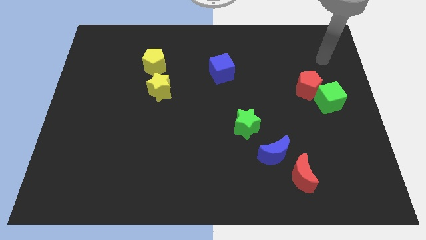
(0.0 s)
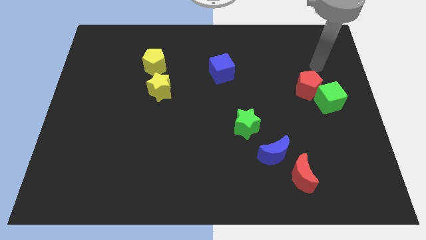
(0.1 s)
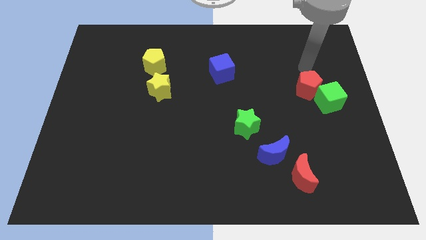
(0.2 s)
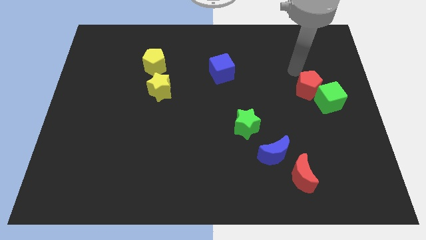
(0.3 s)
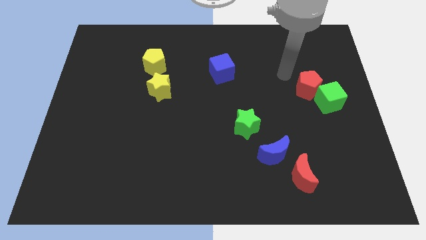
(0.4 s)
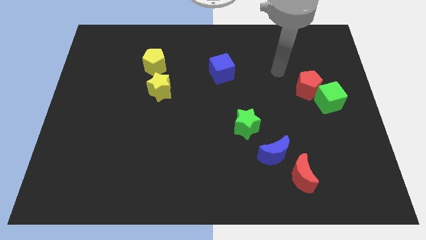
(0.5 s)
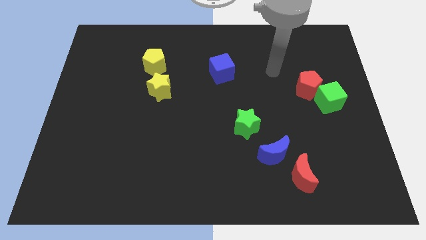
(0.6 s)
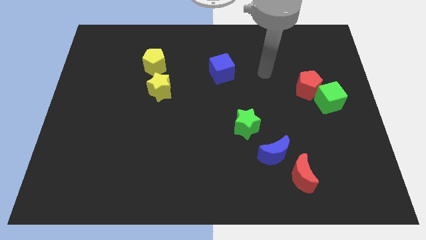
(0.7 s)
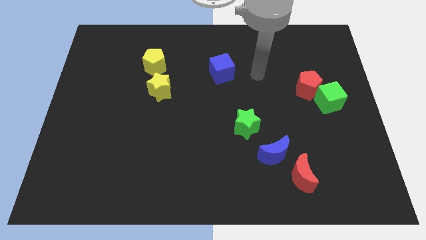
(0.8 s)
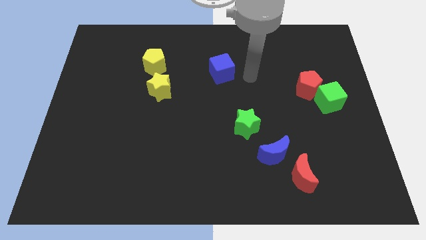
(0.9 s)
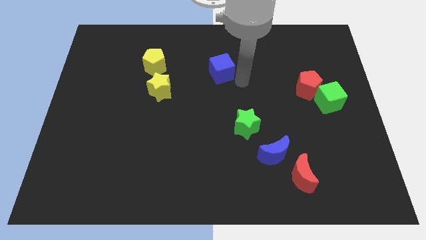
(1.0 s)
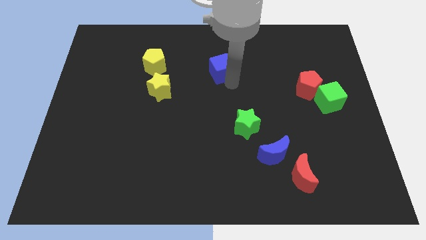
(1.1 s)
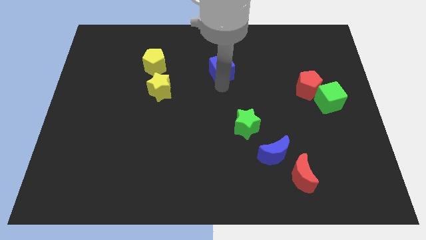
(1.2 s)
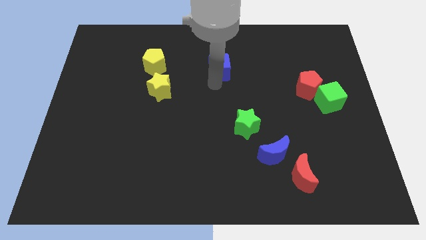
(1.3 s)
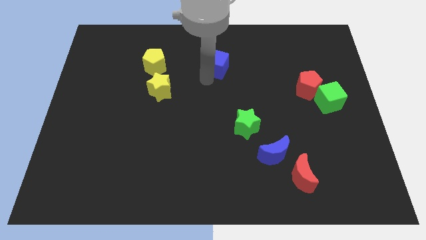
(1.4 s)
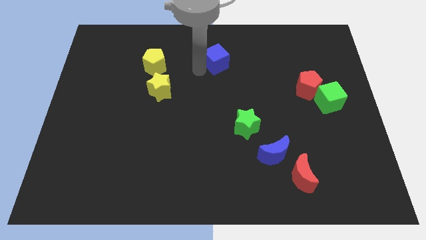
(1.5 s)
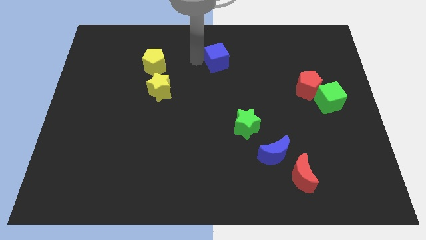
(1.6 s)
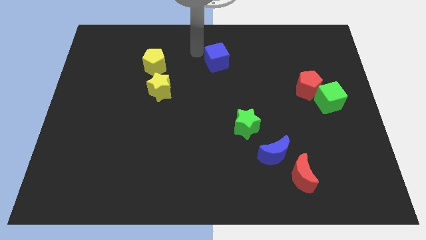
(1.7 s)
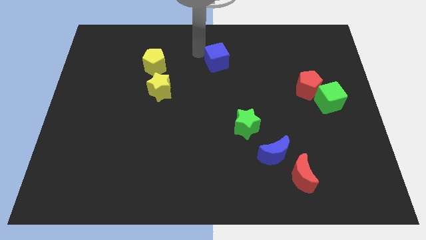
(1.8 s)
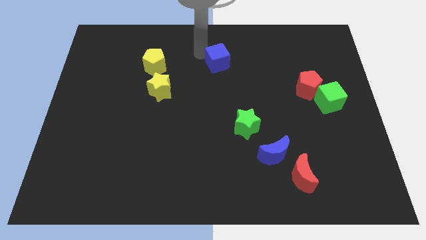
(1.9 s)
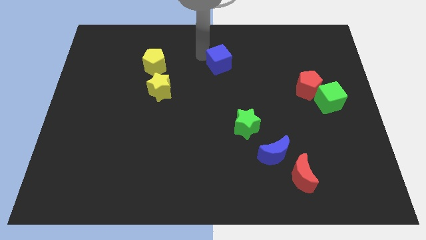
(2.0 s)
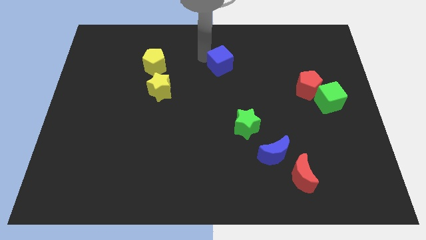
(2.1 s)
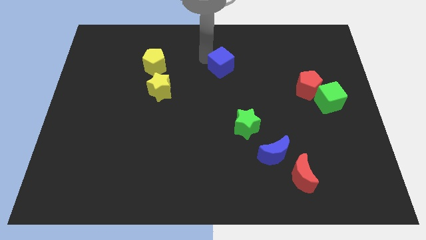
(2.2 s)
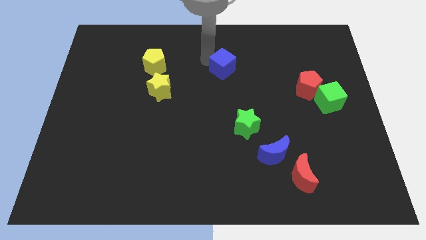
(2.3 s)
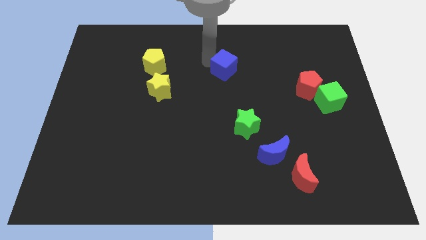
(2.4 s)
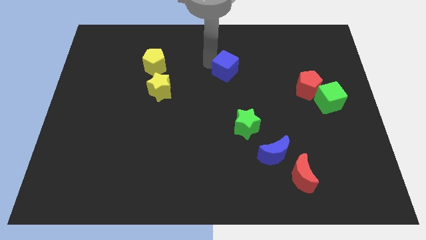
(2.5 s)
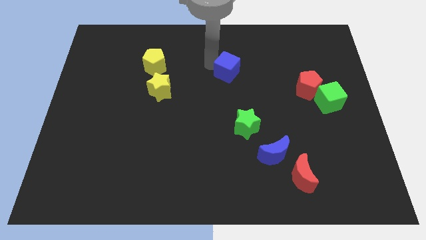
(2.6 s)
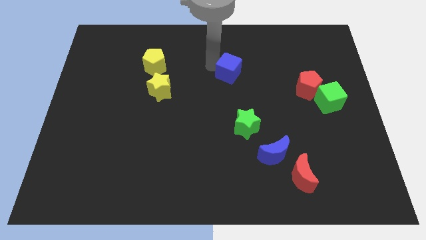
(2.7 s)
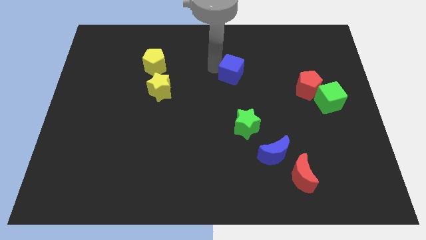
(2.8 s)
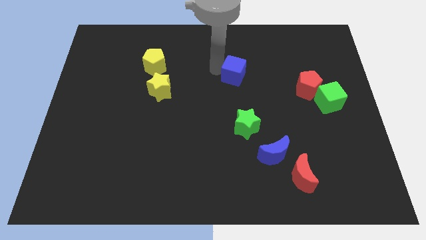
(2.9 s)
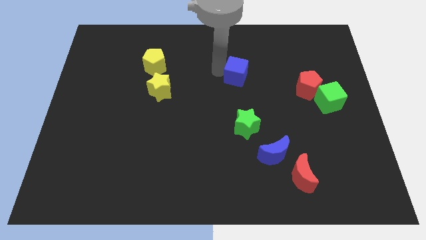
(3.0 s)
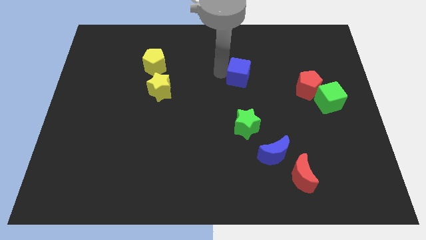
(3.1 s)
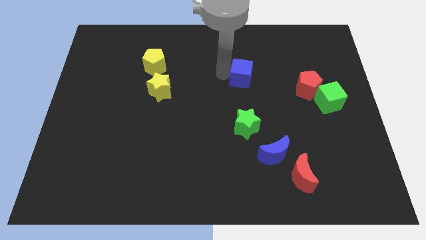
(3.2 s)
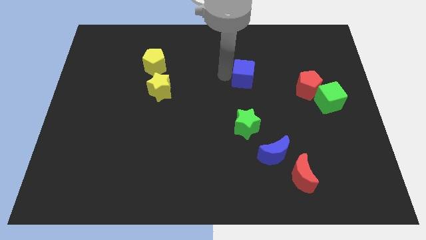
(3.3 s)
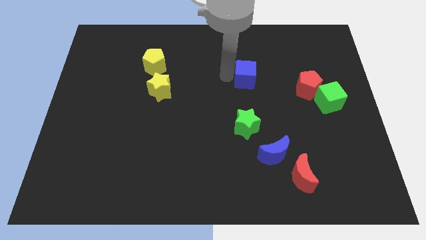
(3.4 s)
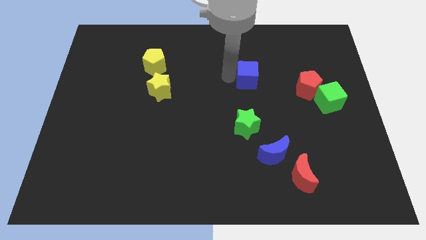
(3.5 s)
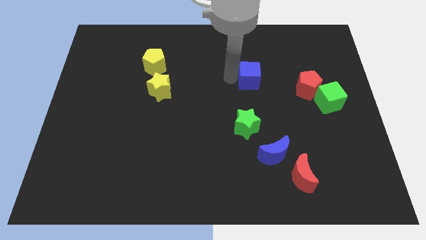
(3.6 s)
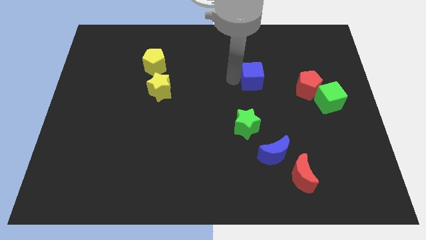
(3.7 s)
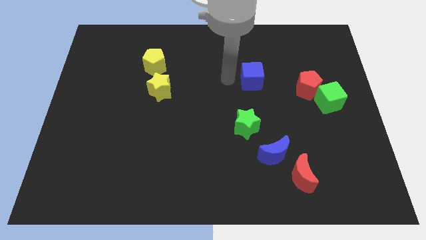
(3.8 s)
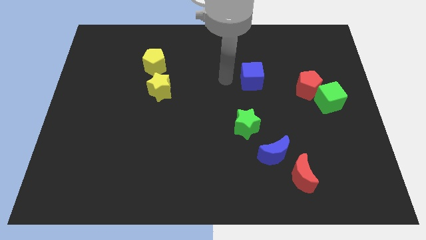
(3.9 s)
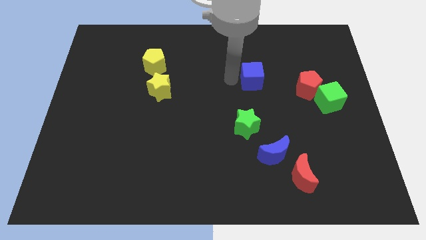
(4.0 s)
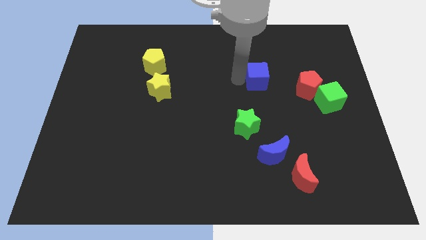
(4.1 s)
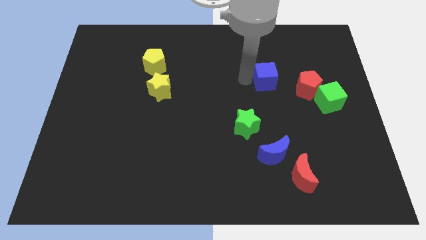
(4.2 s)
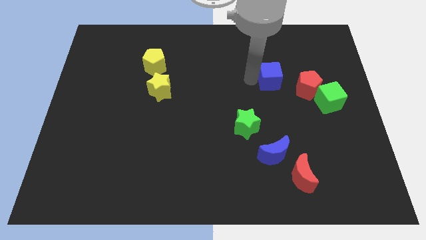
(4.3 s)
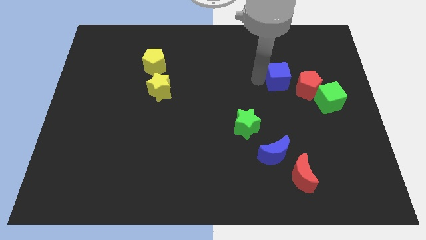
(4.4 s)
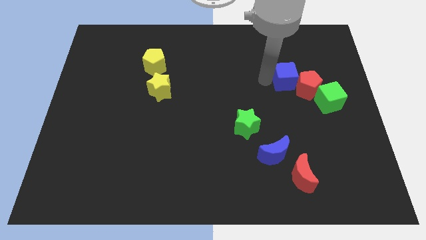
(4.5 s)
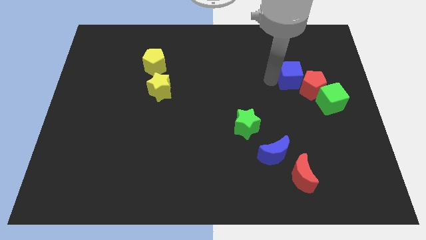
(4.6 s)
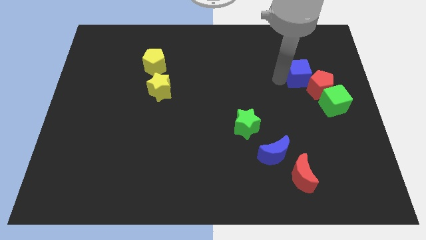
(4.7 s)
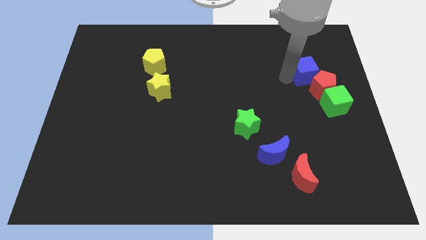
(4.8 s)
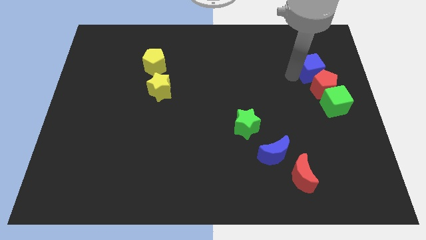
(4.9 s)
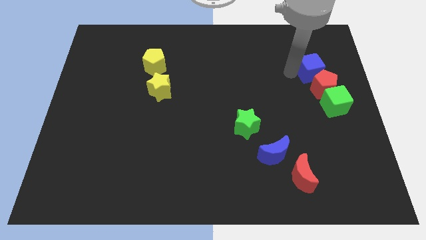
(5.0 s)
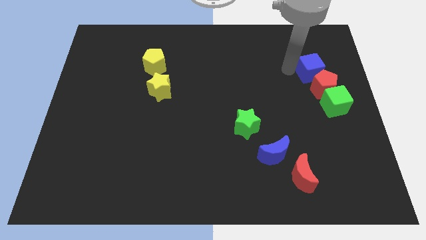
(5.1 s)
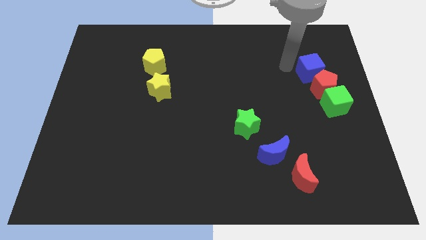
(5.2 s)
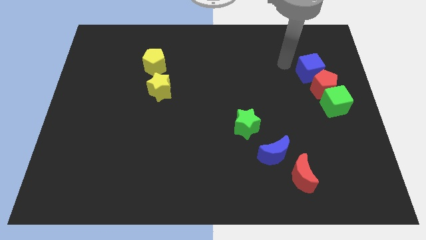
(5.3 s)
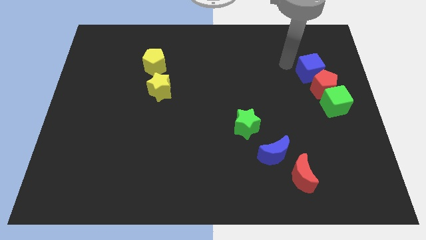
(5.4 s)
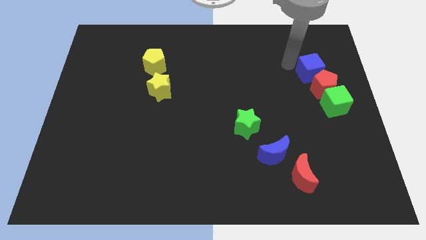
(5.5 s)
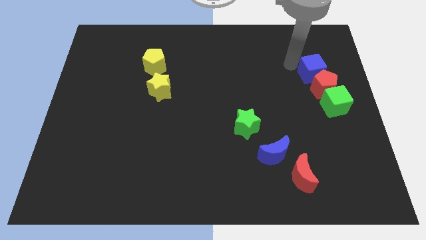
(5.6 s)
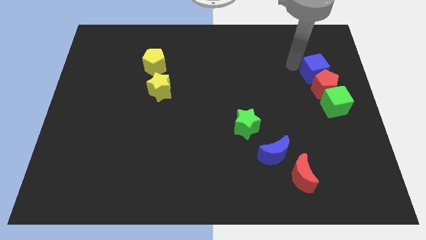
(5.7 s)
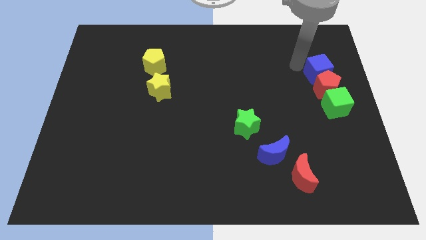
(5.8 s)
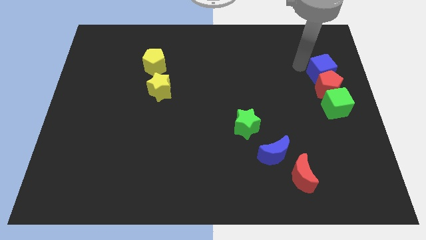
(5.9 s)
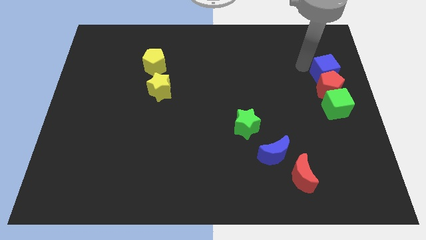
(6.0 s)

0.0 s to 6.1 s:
move the blue cube to the right side

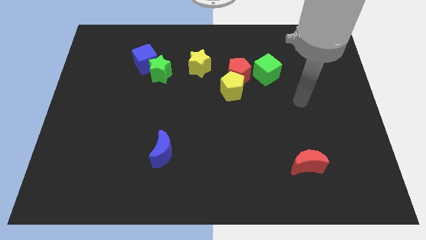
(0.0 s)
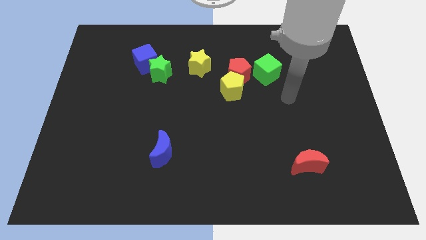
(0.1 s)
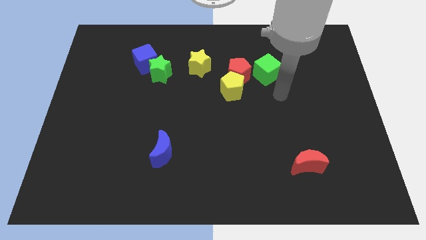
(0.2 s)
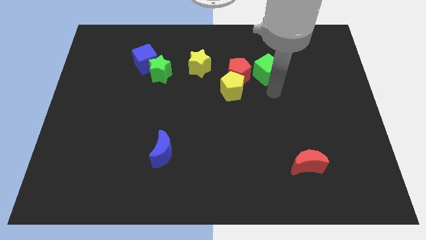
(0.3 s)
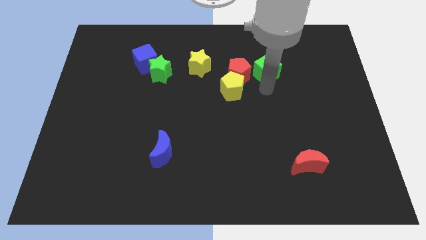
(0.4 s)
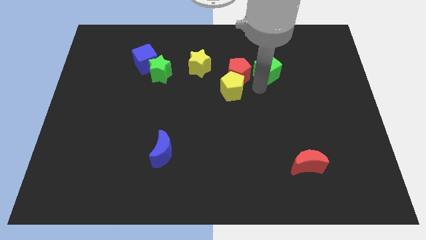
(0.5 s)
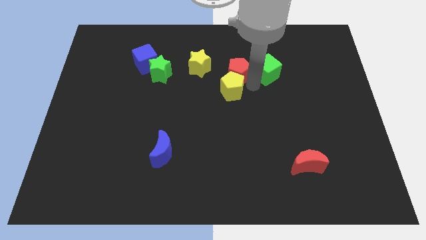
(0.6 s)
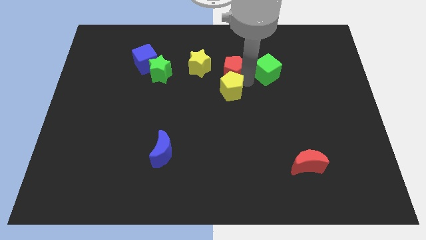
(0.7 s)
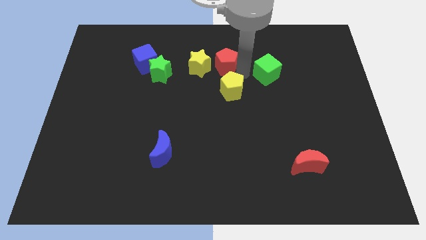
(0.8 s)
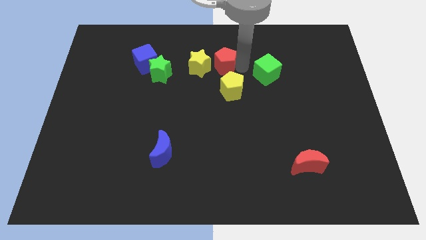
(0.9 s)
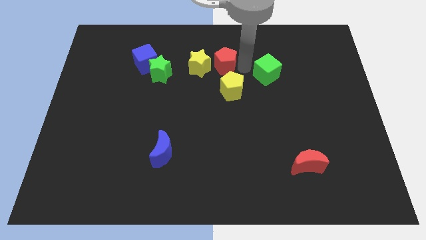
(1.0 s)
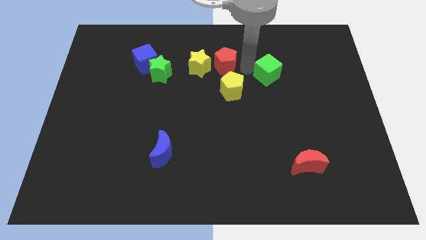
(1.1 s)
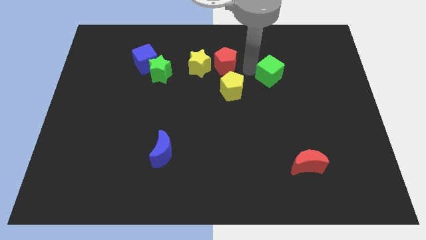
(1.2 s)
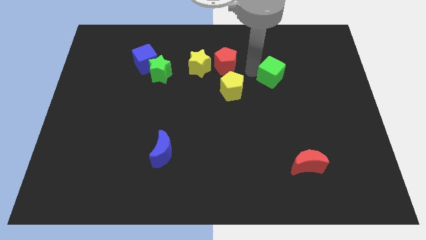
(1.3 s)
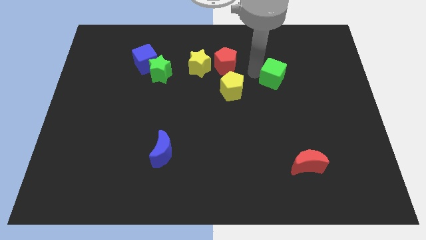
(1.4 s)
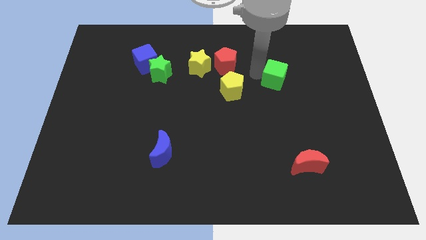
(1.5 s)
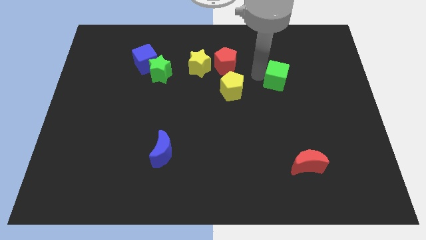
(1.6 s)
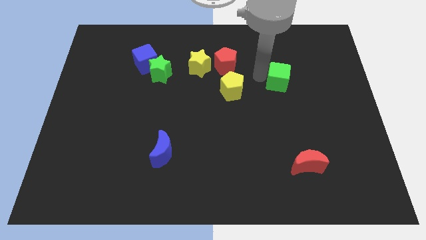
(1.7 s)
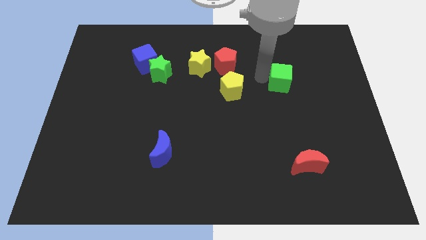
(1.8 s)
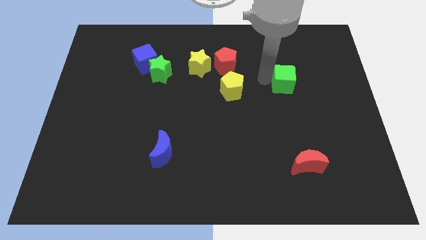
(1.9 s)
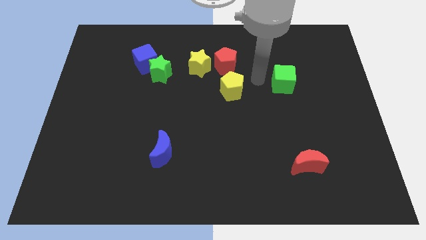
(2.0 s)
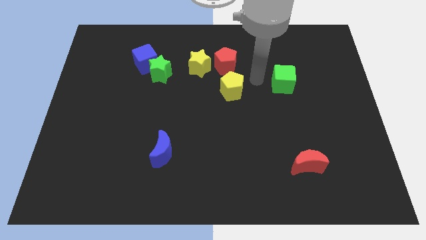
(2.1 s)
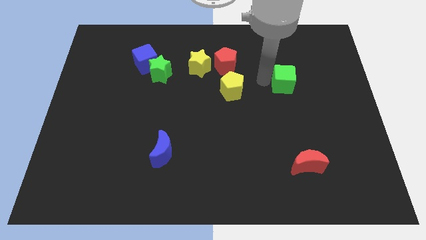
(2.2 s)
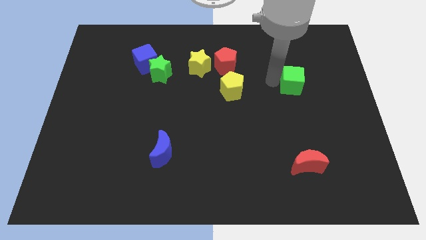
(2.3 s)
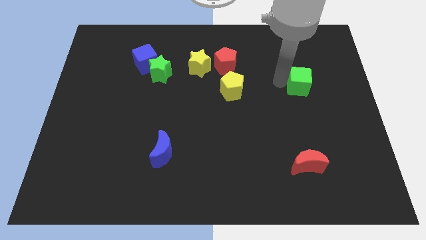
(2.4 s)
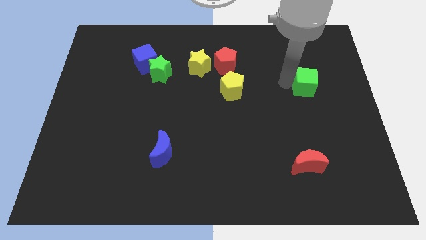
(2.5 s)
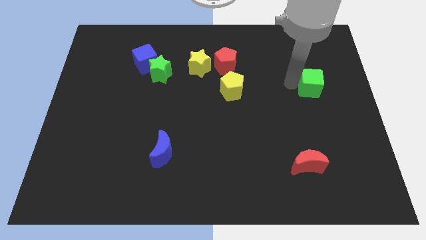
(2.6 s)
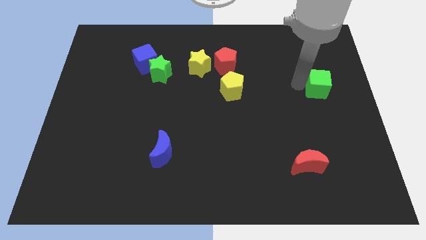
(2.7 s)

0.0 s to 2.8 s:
push the green cube to the right side
